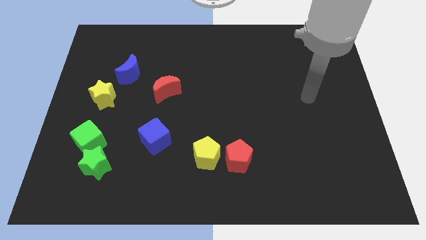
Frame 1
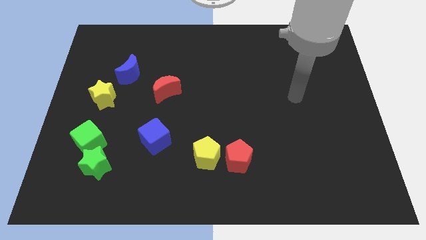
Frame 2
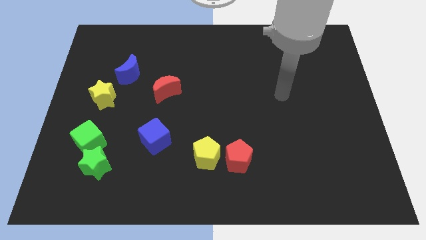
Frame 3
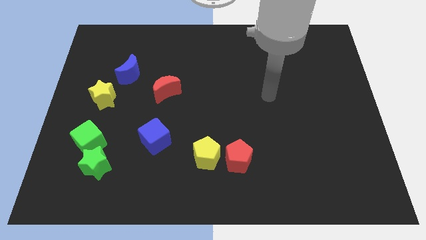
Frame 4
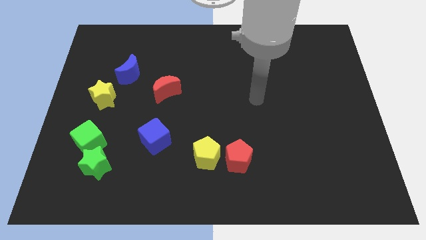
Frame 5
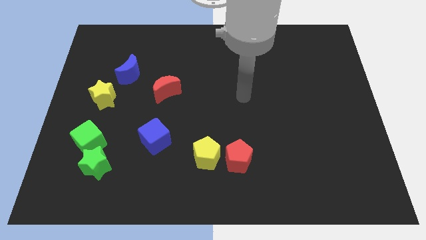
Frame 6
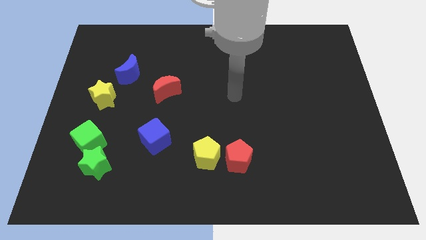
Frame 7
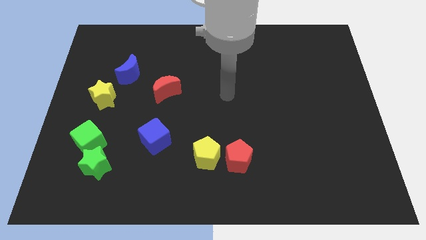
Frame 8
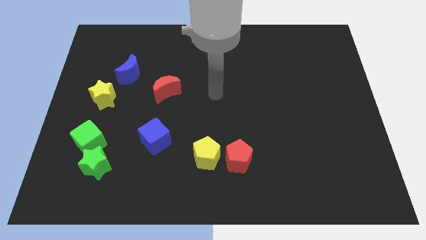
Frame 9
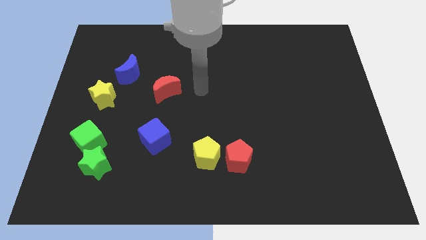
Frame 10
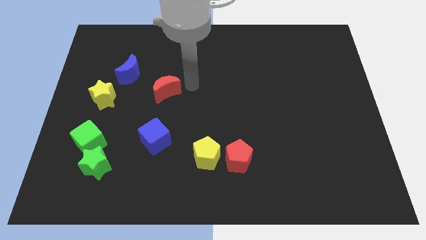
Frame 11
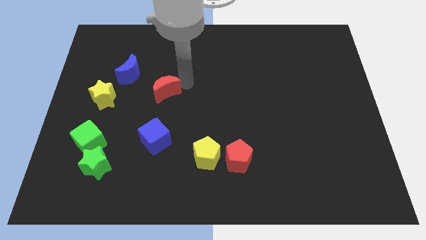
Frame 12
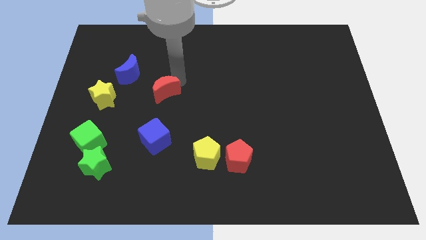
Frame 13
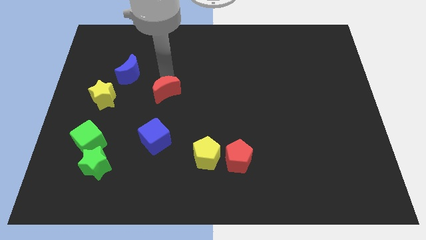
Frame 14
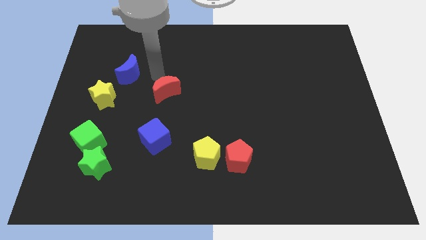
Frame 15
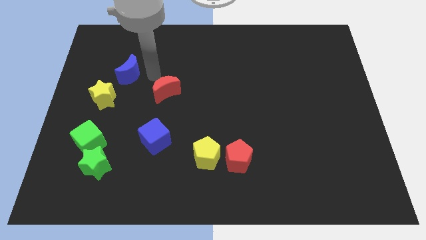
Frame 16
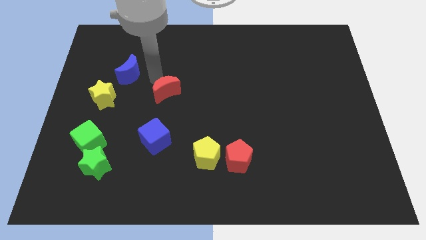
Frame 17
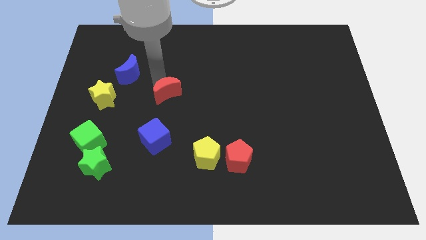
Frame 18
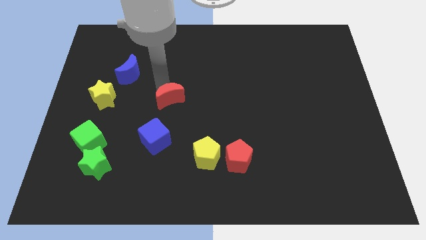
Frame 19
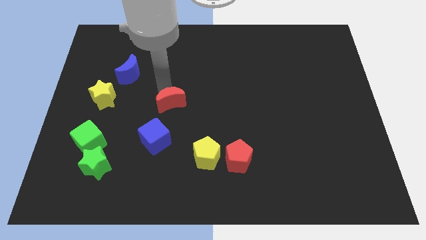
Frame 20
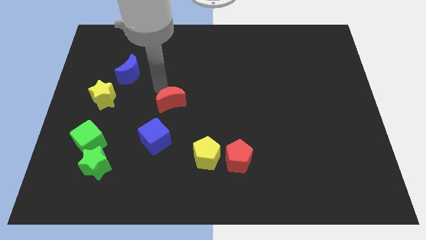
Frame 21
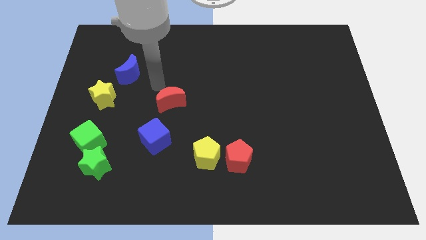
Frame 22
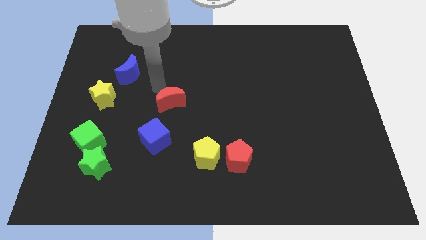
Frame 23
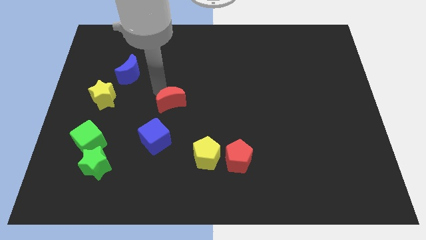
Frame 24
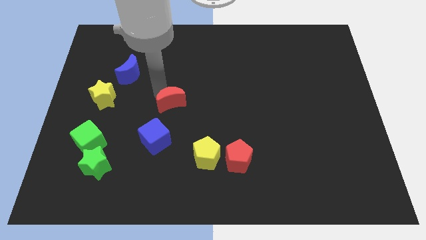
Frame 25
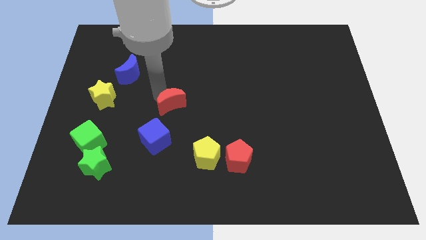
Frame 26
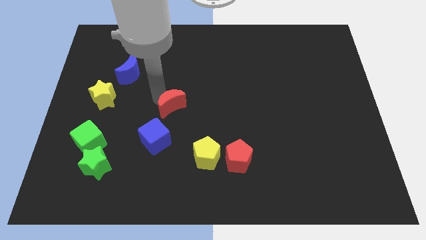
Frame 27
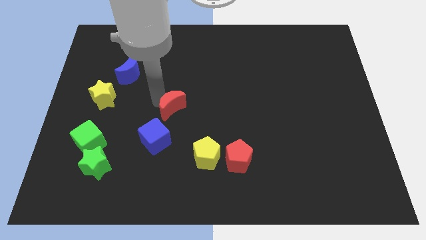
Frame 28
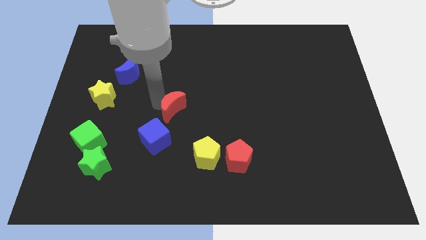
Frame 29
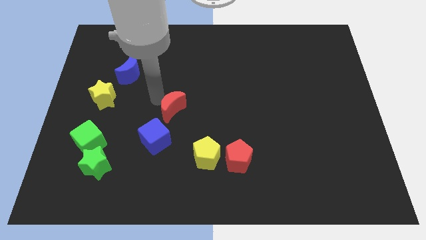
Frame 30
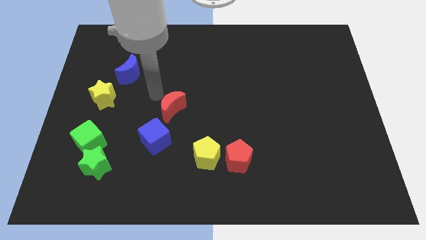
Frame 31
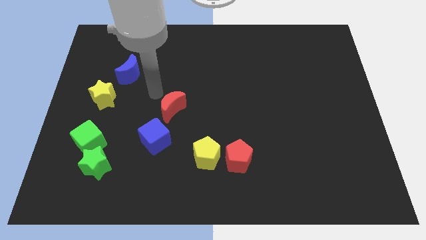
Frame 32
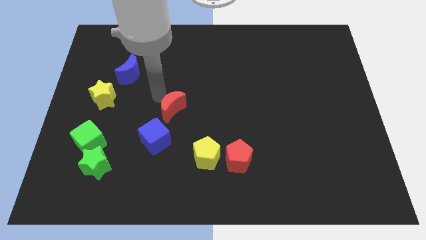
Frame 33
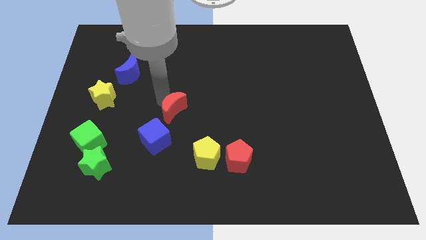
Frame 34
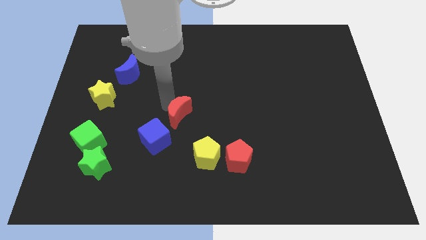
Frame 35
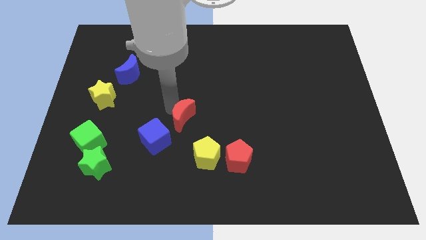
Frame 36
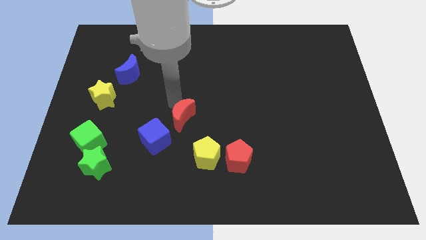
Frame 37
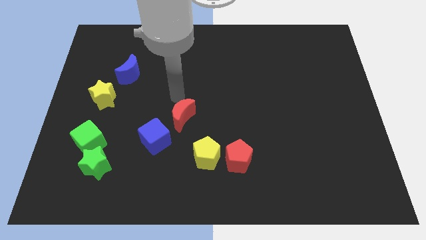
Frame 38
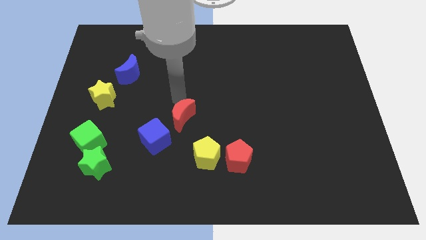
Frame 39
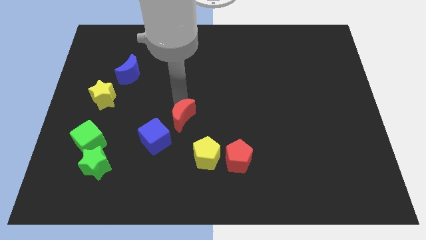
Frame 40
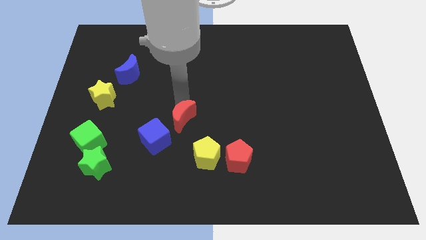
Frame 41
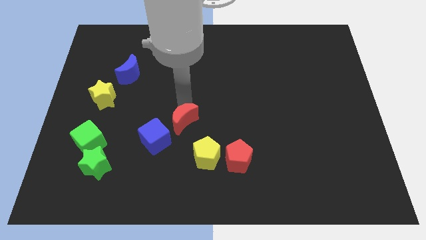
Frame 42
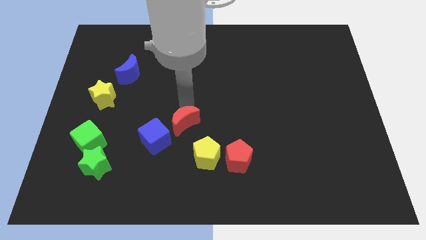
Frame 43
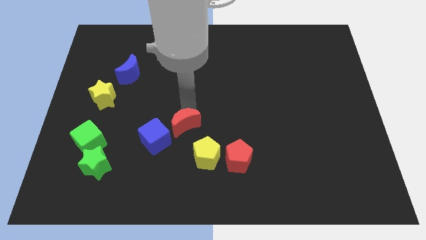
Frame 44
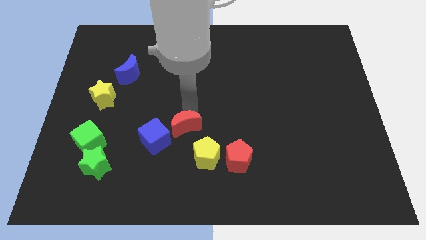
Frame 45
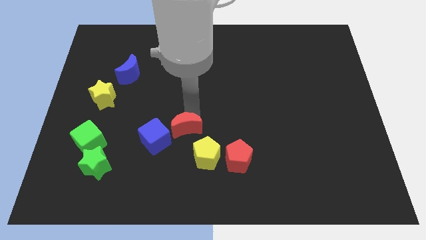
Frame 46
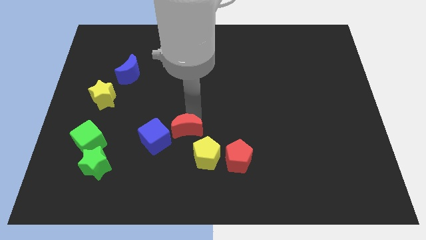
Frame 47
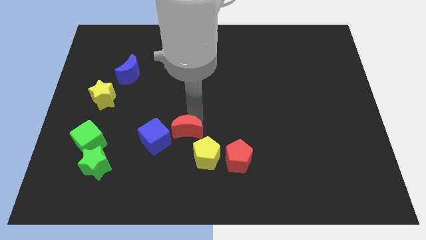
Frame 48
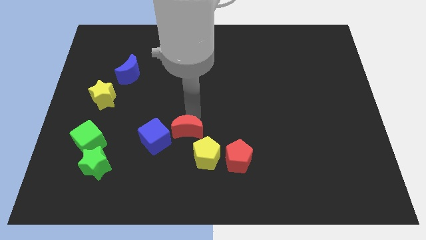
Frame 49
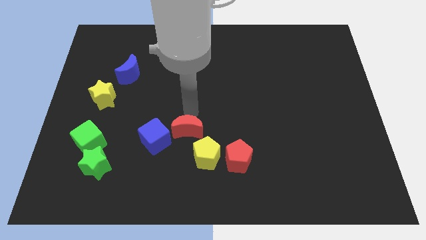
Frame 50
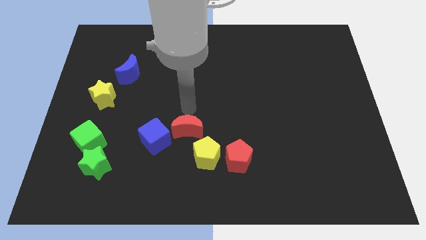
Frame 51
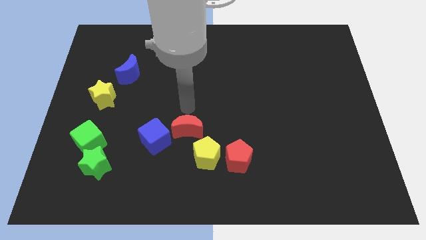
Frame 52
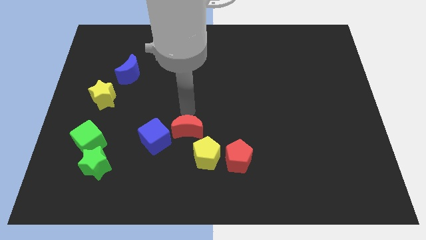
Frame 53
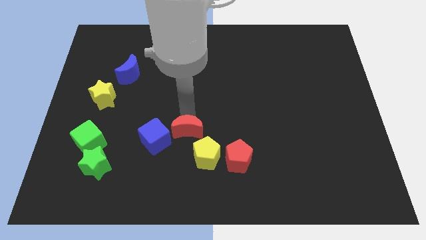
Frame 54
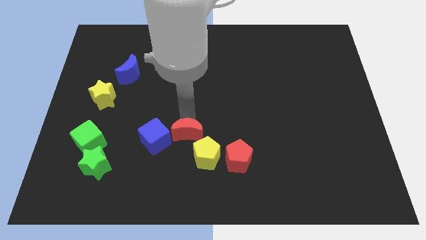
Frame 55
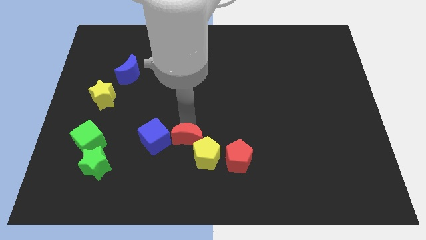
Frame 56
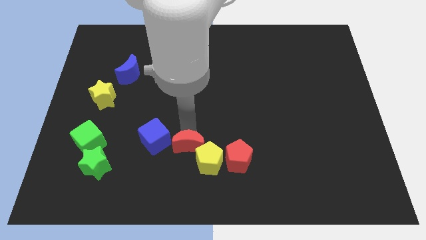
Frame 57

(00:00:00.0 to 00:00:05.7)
push the red moon to the left of the red pentagon

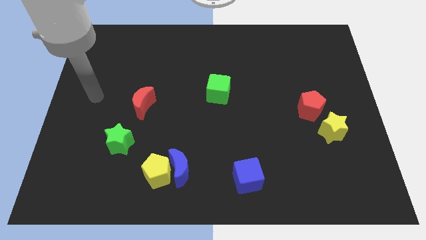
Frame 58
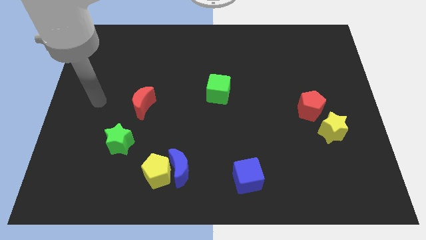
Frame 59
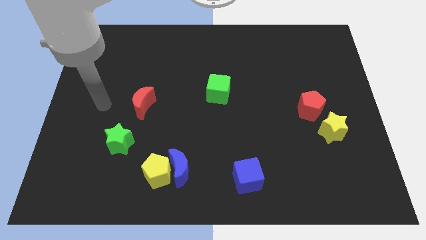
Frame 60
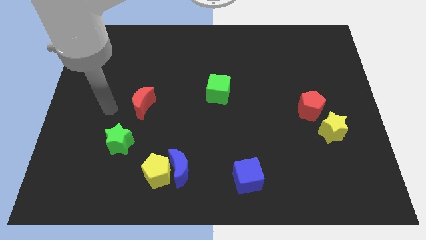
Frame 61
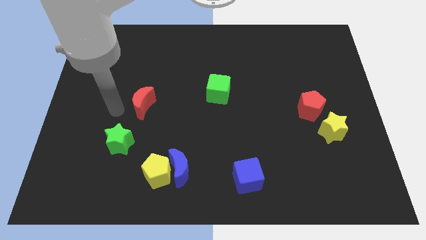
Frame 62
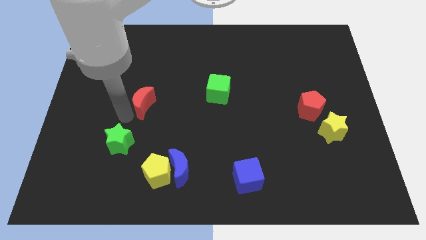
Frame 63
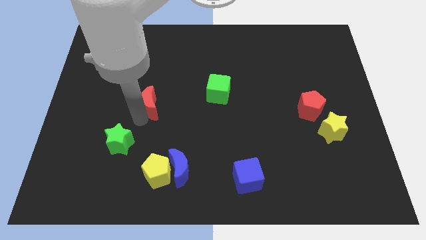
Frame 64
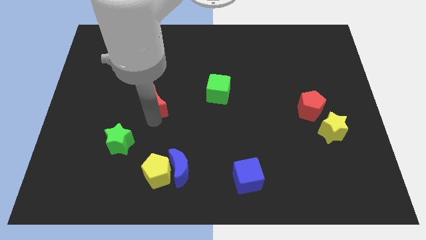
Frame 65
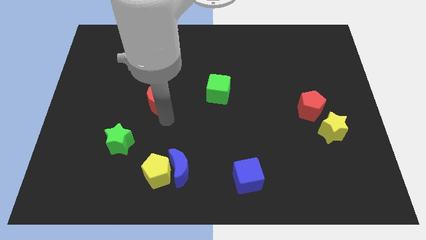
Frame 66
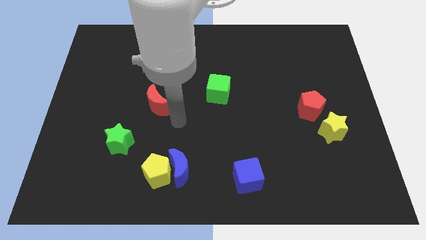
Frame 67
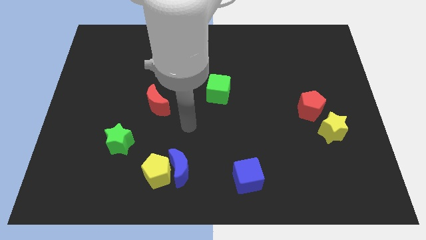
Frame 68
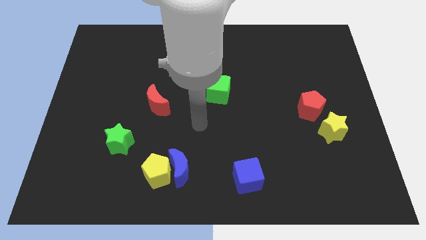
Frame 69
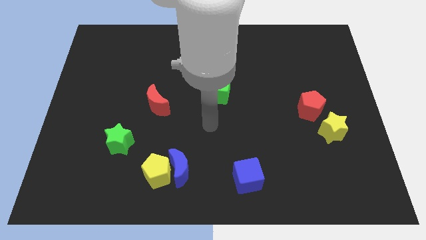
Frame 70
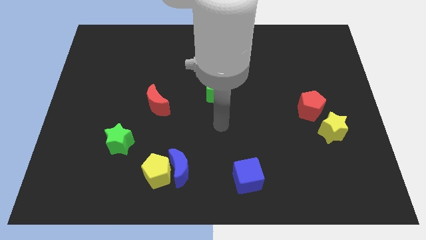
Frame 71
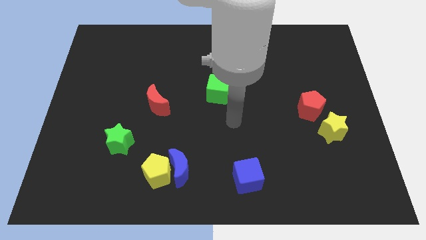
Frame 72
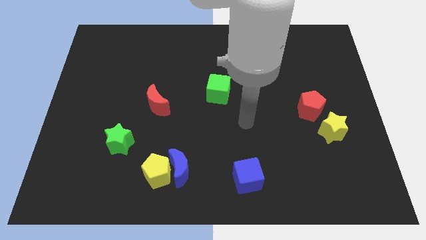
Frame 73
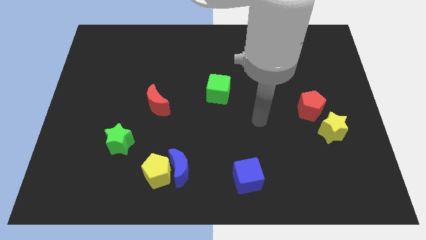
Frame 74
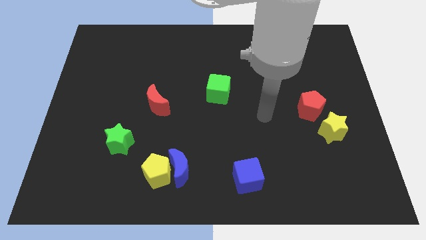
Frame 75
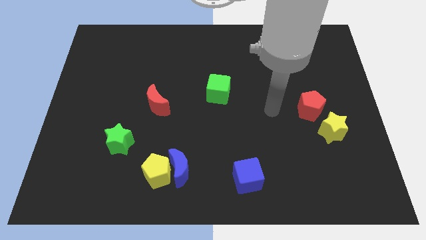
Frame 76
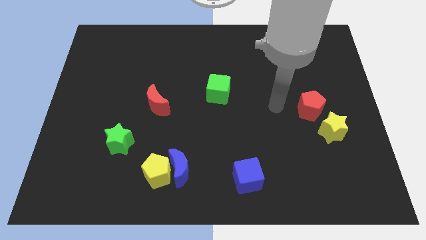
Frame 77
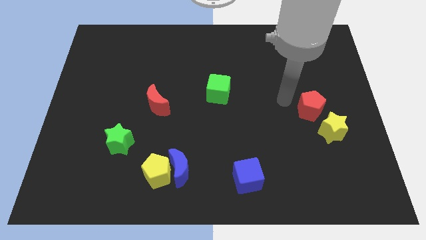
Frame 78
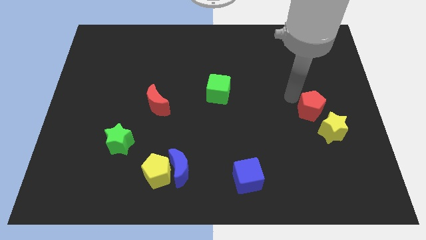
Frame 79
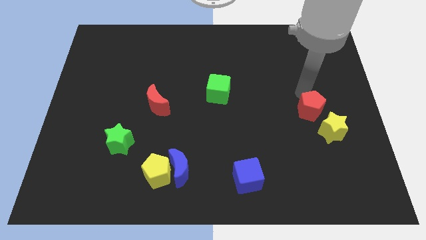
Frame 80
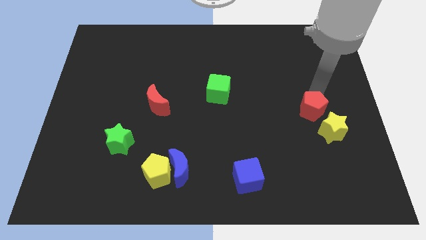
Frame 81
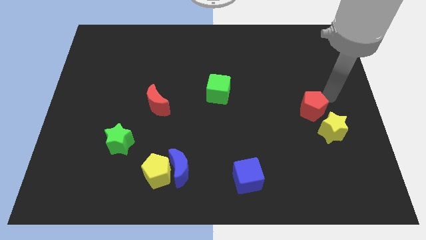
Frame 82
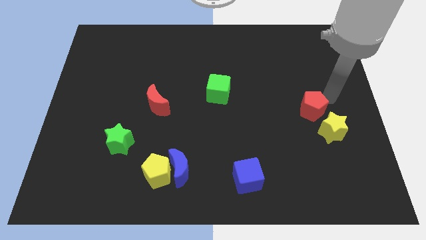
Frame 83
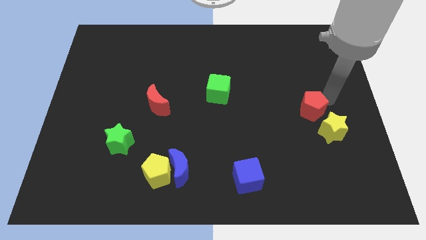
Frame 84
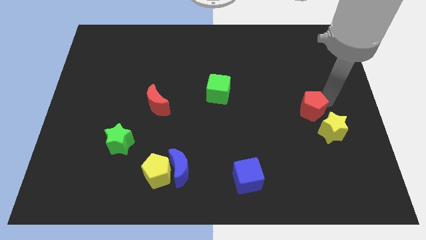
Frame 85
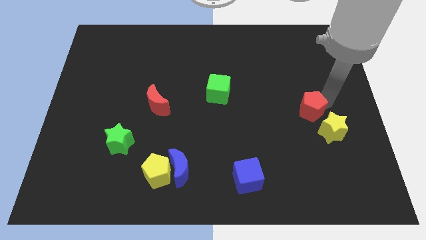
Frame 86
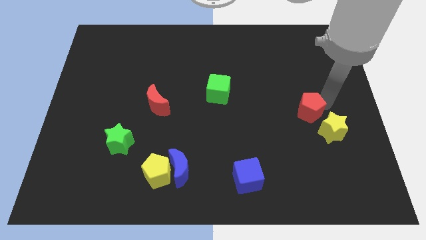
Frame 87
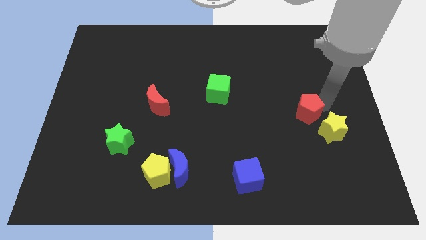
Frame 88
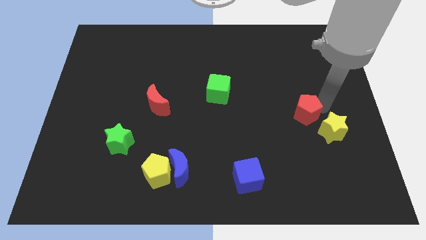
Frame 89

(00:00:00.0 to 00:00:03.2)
slide the red pentagon left of the yellow star
